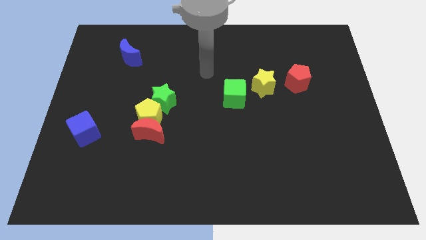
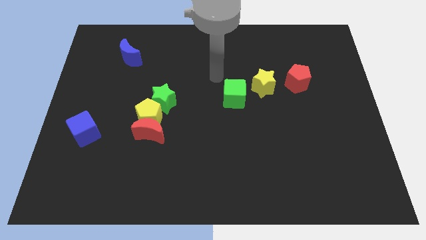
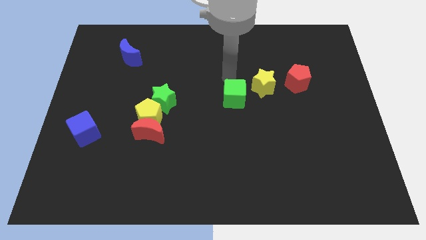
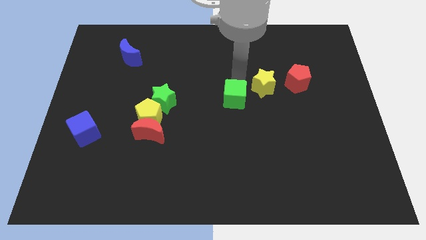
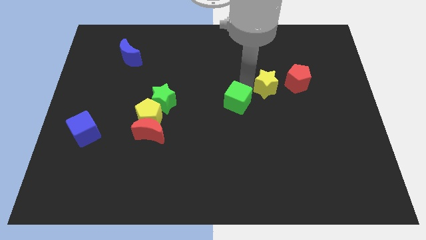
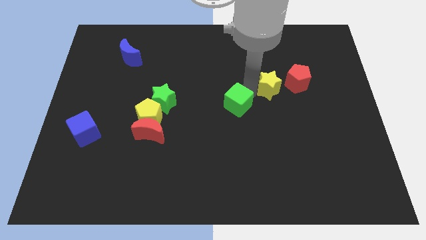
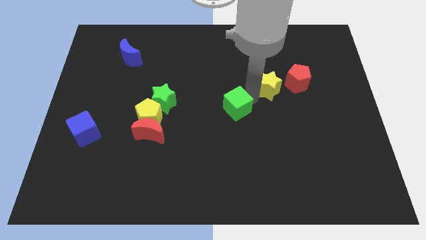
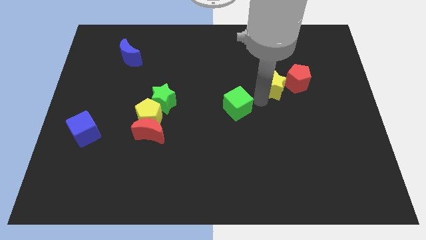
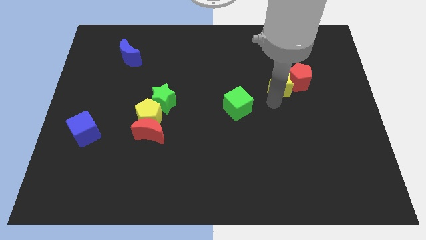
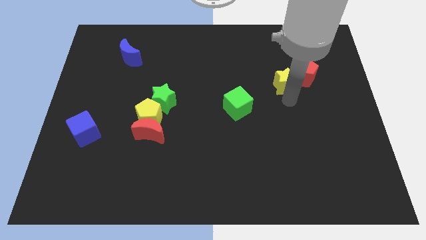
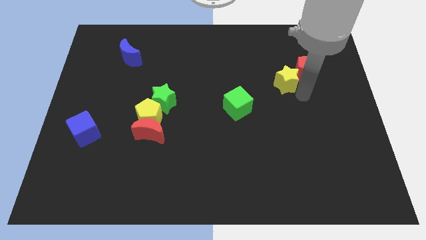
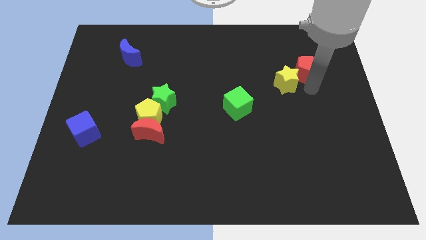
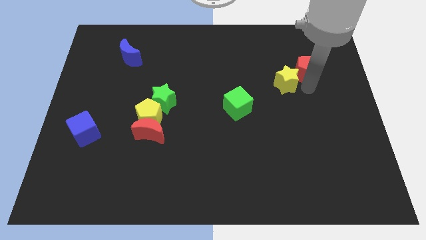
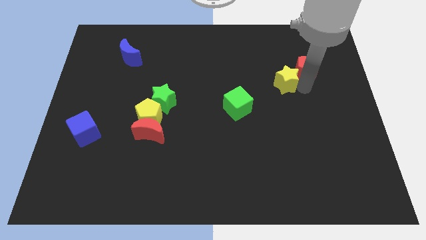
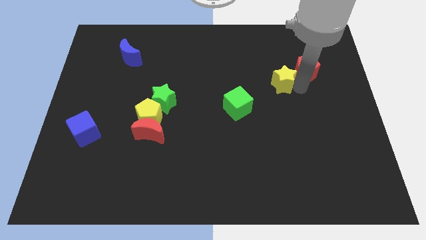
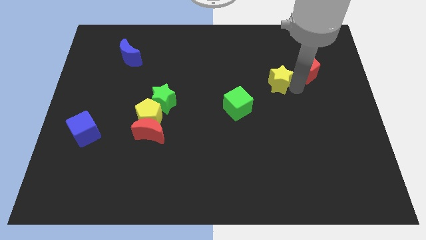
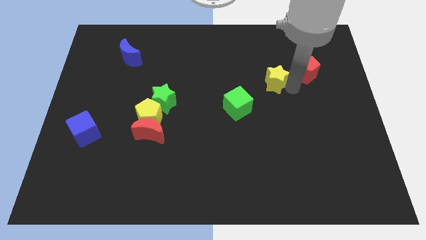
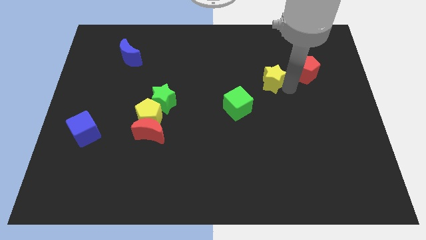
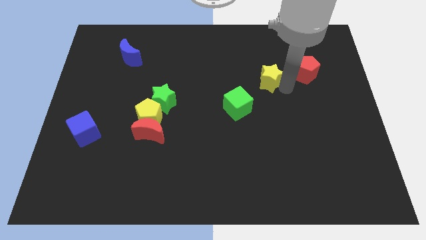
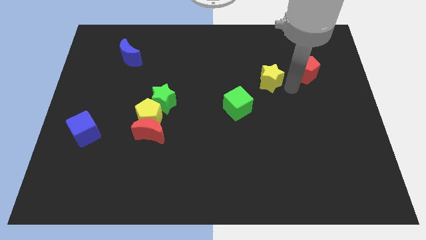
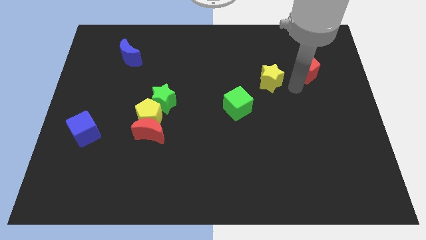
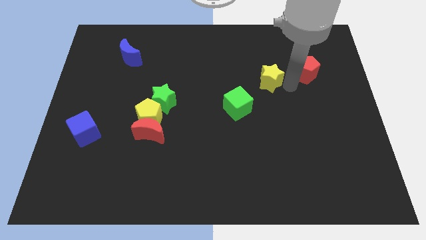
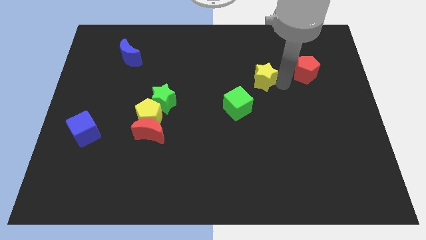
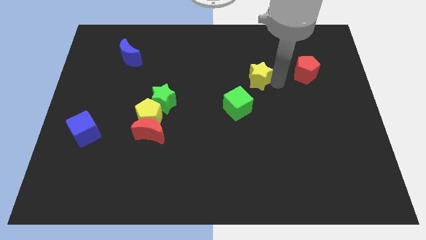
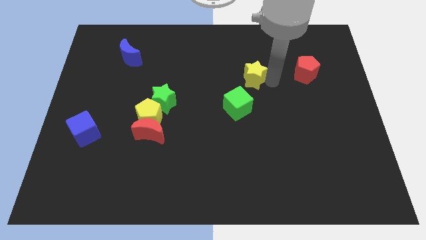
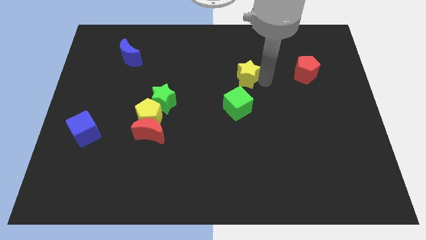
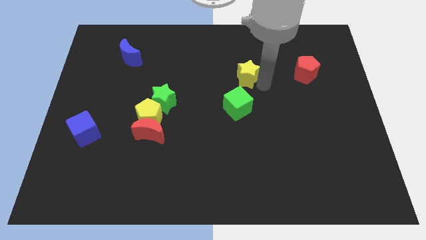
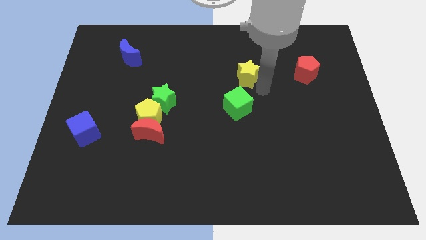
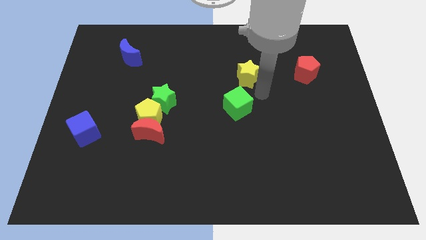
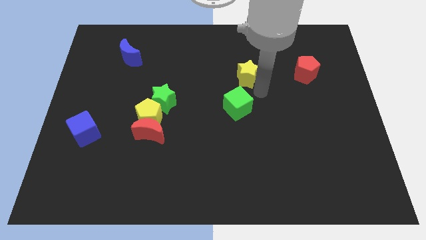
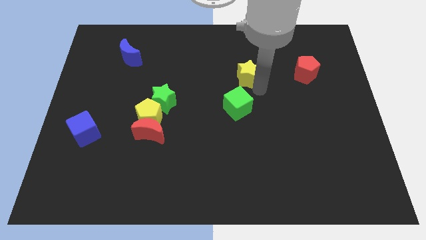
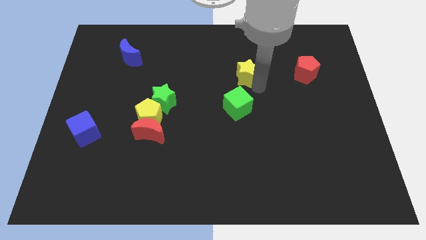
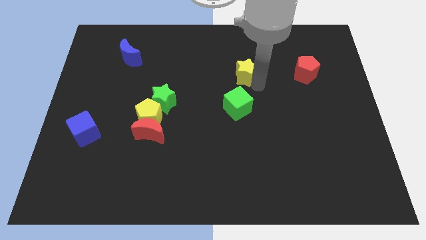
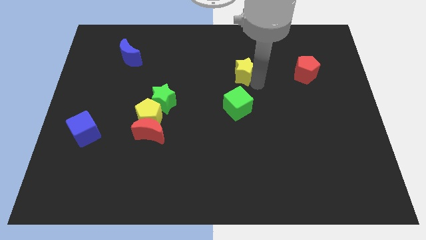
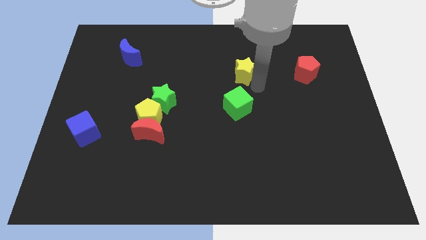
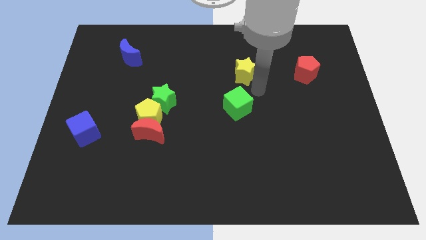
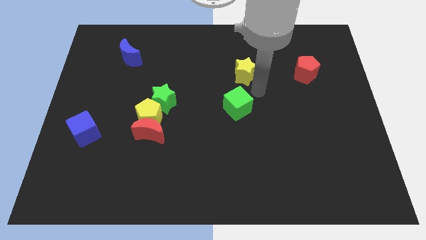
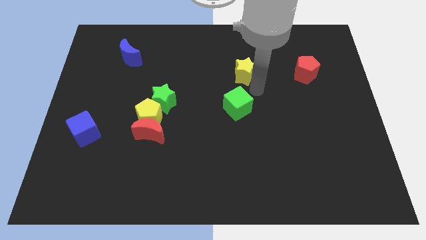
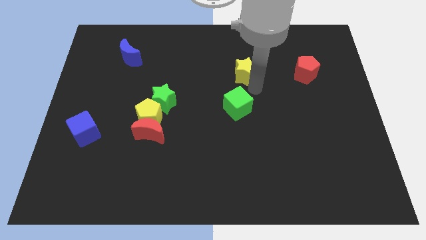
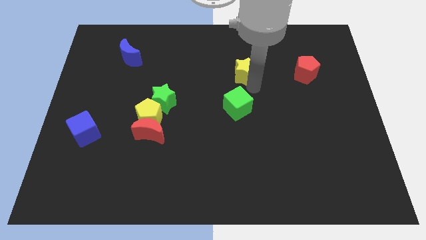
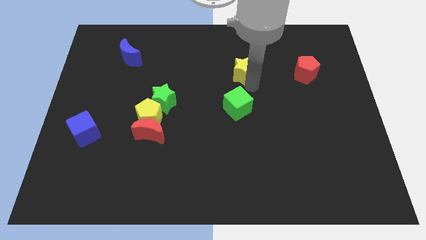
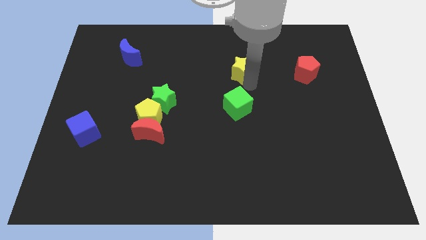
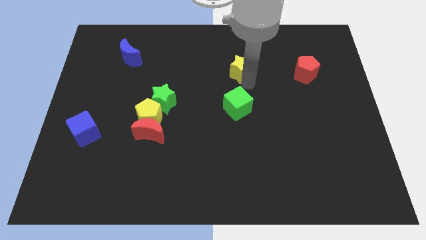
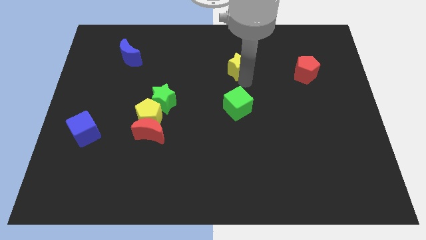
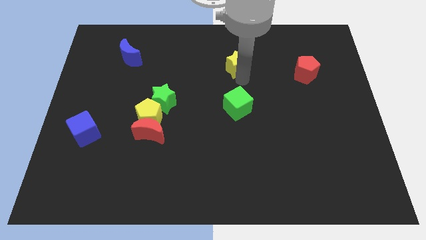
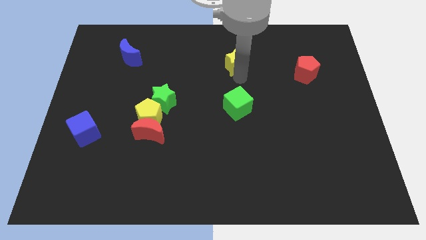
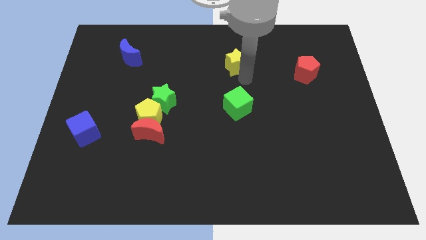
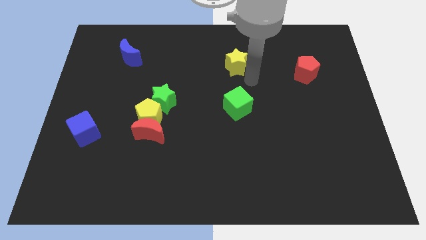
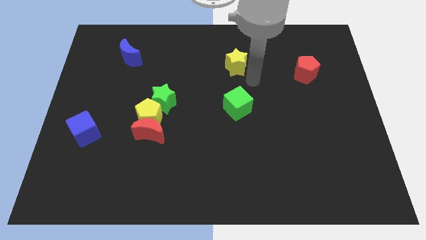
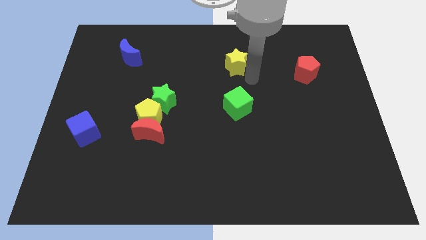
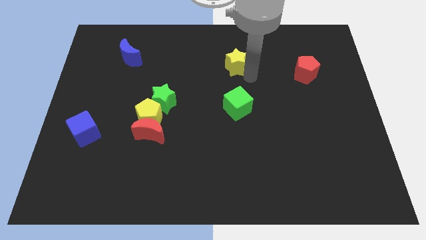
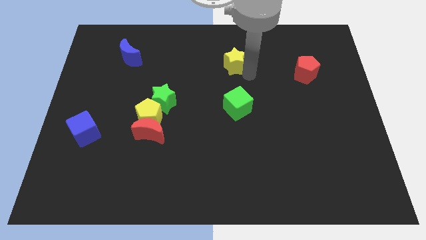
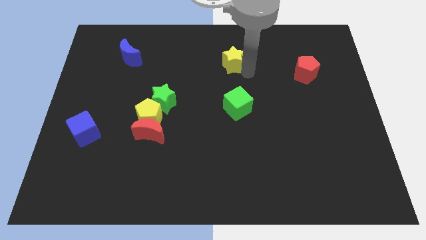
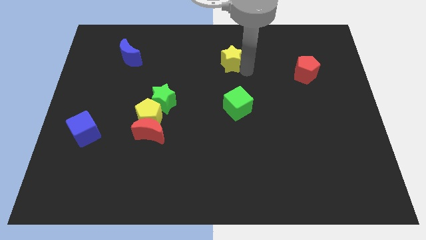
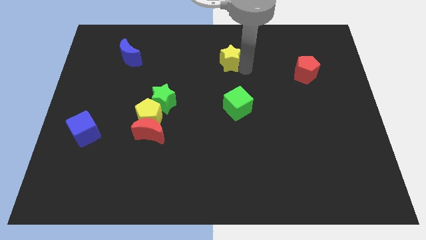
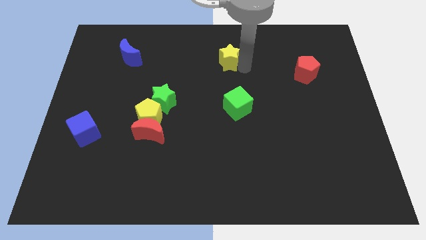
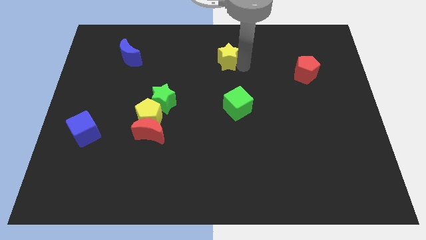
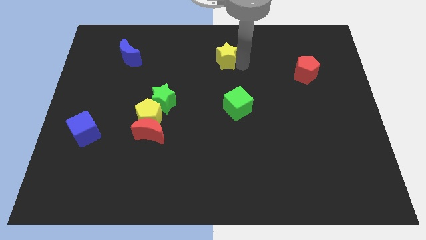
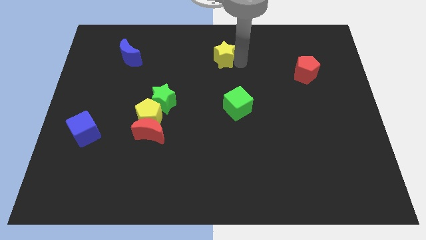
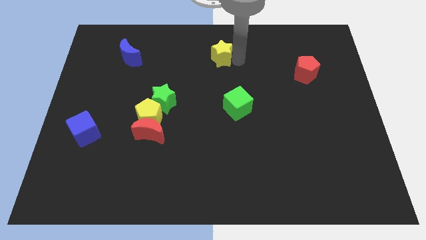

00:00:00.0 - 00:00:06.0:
move the yellow star to the towards your base
